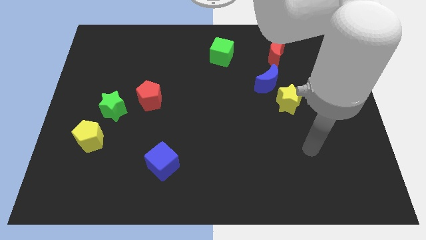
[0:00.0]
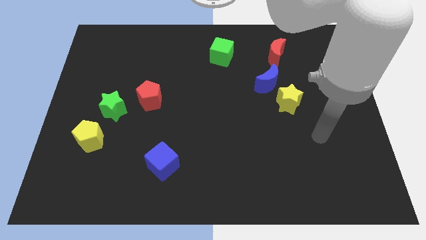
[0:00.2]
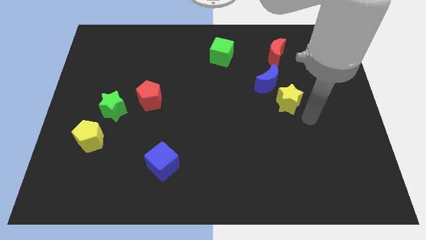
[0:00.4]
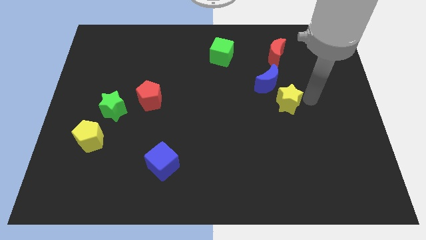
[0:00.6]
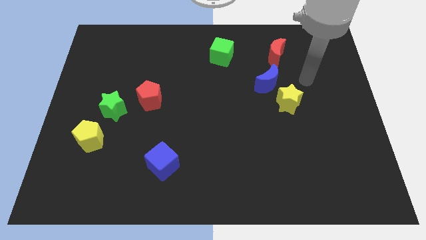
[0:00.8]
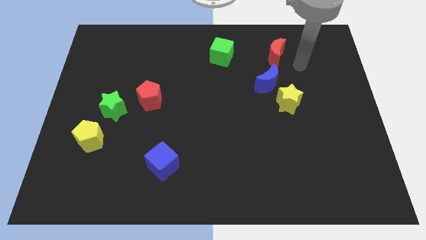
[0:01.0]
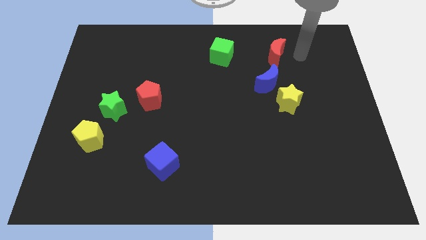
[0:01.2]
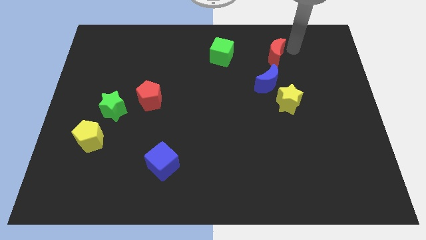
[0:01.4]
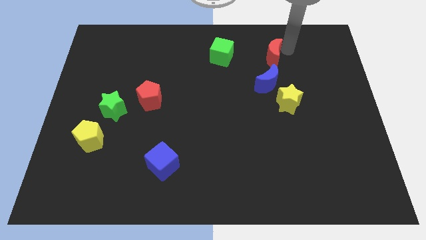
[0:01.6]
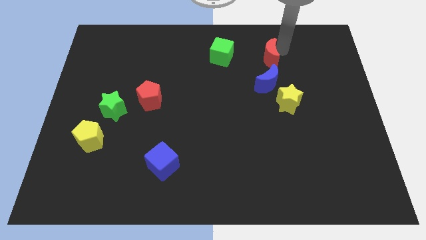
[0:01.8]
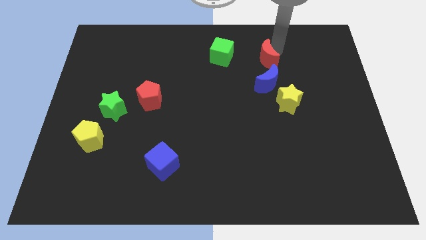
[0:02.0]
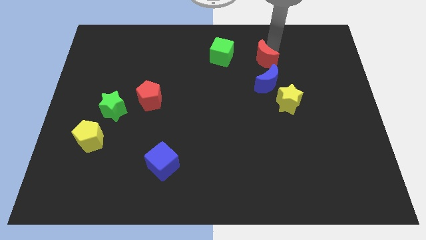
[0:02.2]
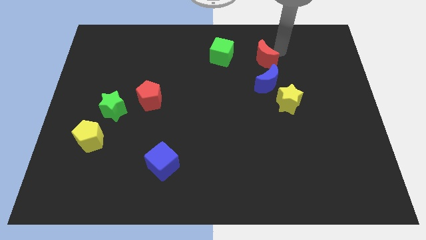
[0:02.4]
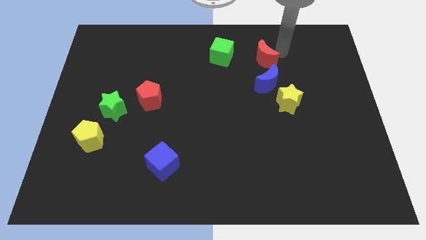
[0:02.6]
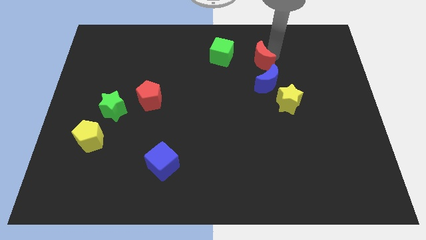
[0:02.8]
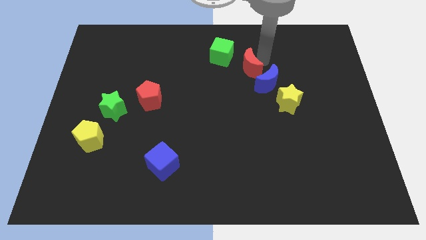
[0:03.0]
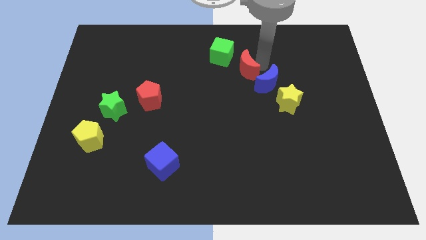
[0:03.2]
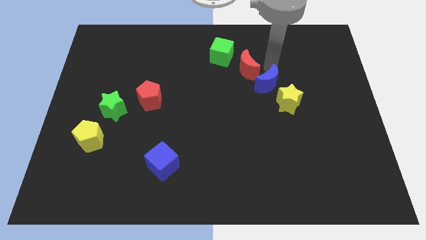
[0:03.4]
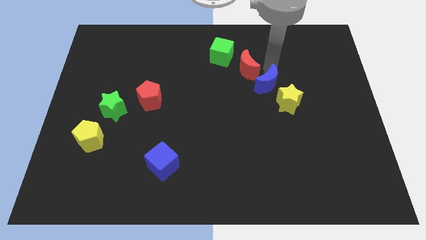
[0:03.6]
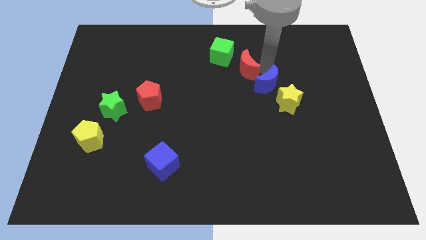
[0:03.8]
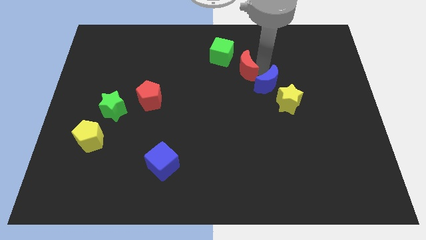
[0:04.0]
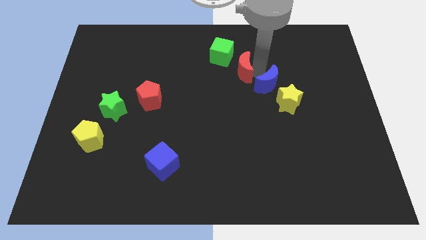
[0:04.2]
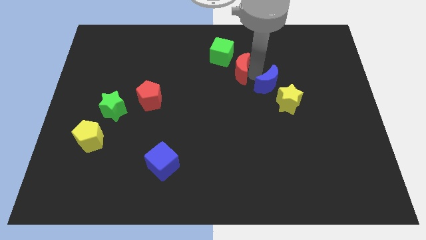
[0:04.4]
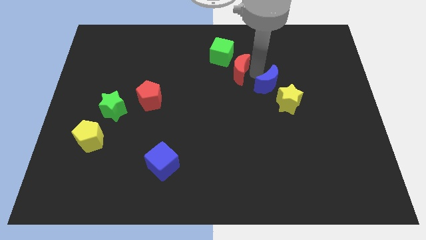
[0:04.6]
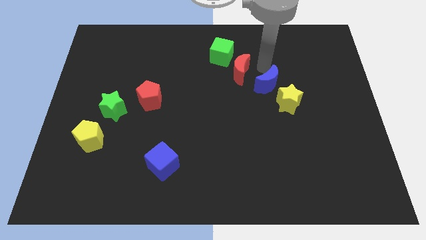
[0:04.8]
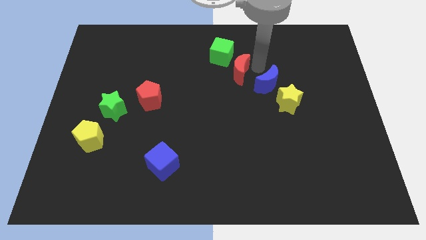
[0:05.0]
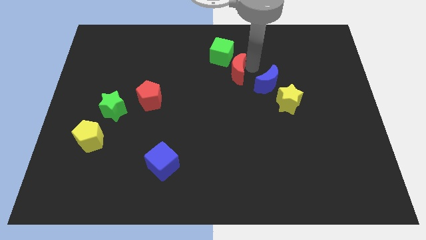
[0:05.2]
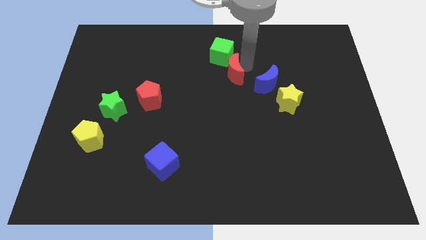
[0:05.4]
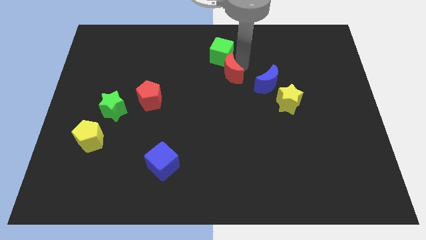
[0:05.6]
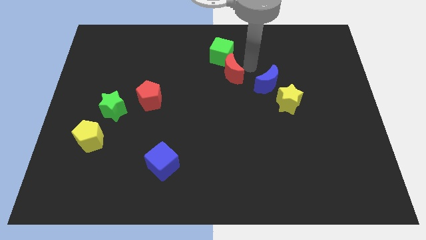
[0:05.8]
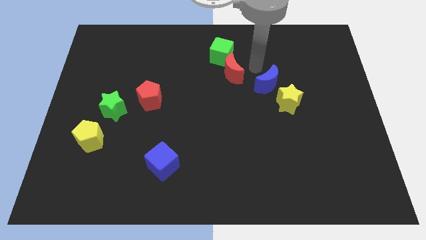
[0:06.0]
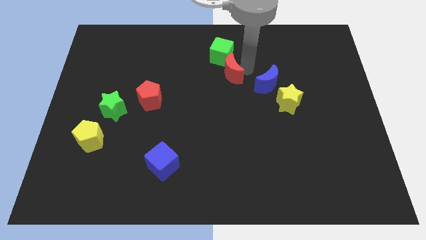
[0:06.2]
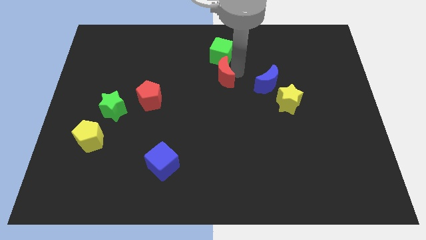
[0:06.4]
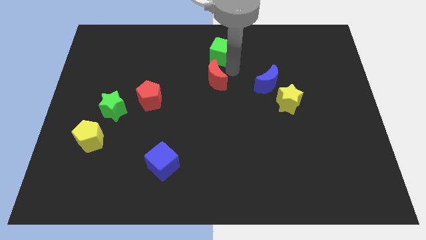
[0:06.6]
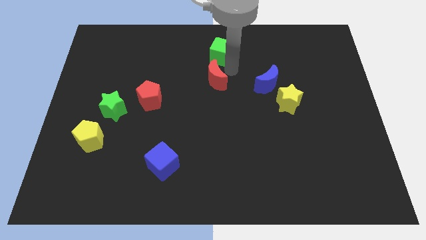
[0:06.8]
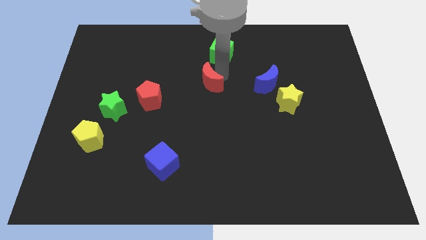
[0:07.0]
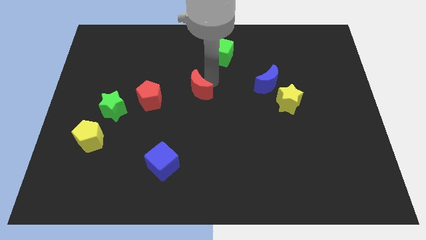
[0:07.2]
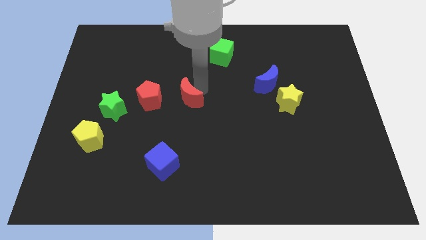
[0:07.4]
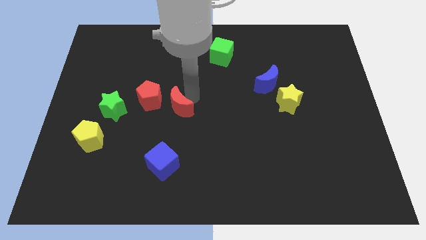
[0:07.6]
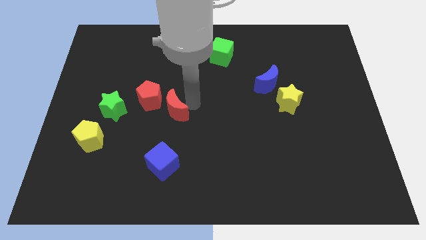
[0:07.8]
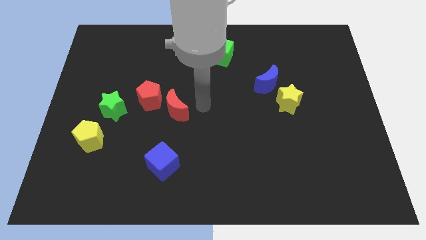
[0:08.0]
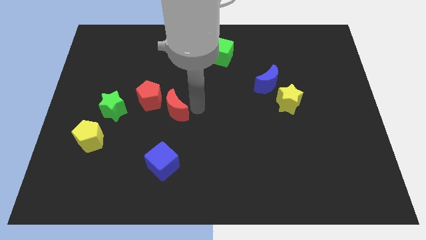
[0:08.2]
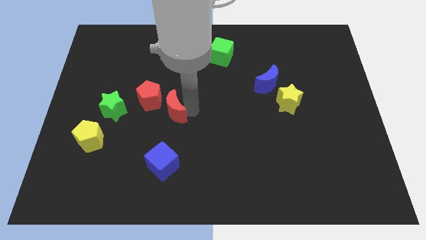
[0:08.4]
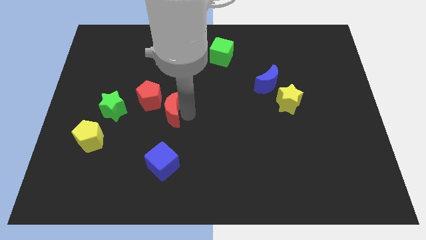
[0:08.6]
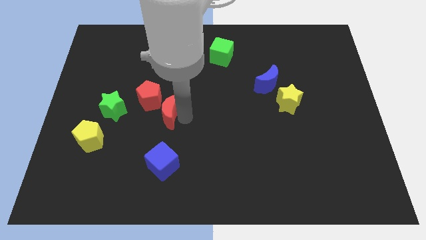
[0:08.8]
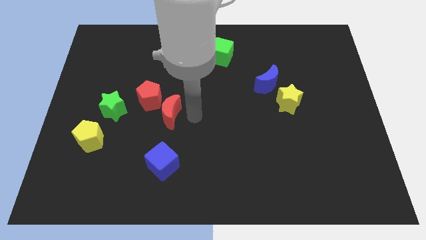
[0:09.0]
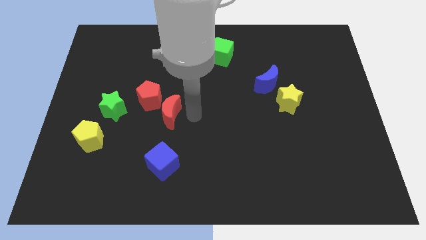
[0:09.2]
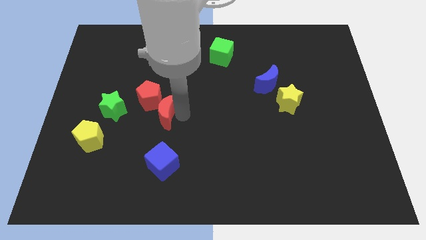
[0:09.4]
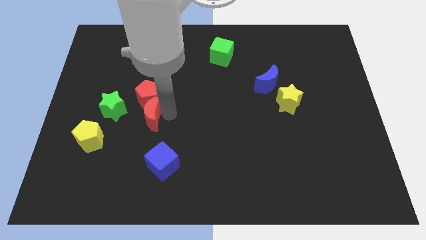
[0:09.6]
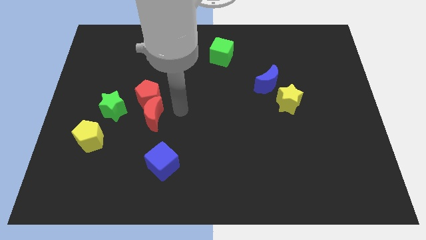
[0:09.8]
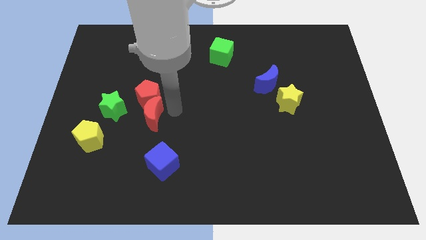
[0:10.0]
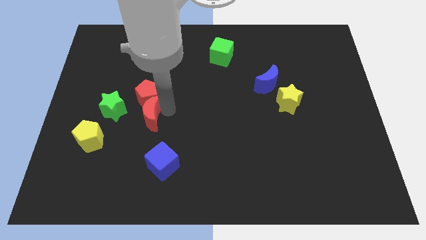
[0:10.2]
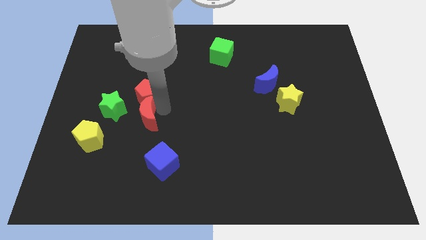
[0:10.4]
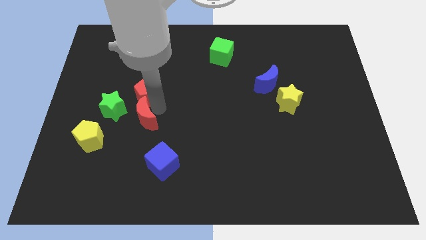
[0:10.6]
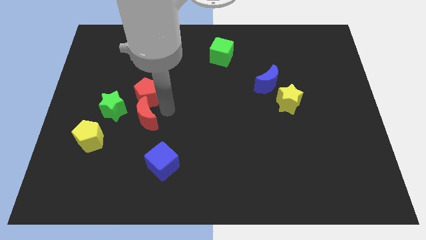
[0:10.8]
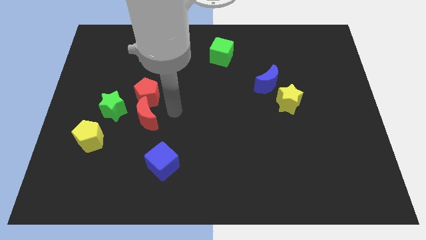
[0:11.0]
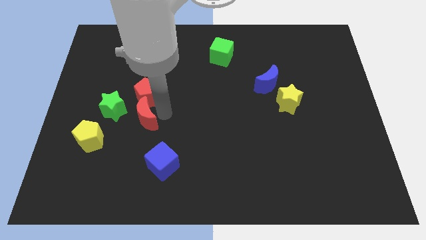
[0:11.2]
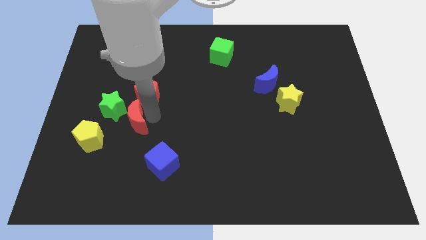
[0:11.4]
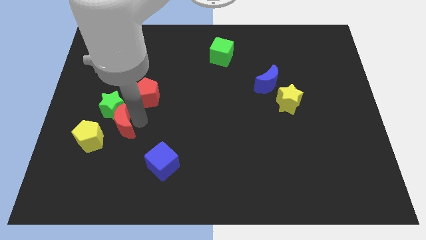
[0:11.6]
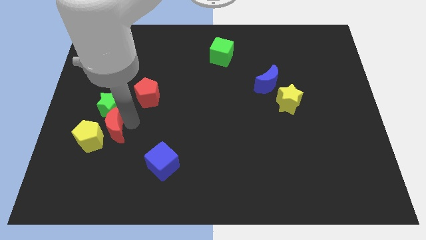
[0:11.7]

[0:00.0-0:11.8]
push the red moon towards the yellow pentagon

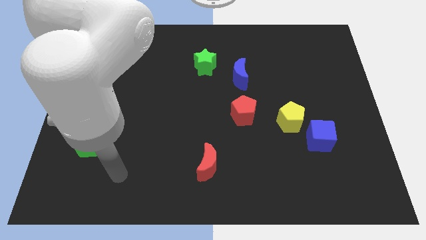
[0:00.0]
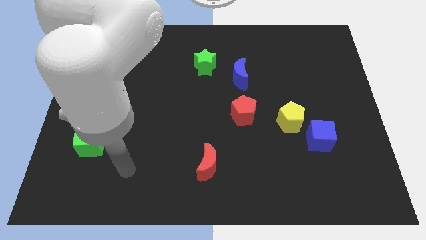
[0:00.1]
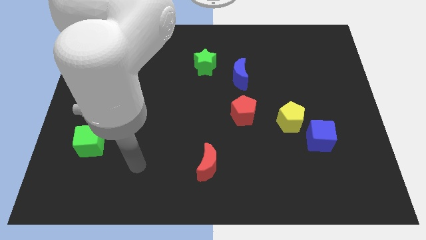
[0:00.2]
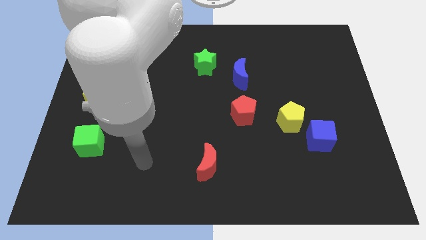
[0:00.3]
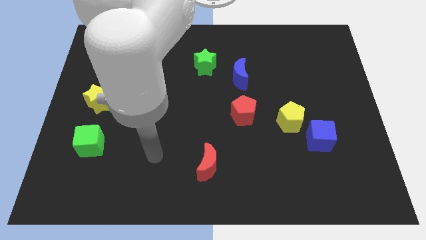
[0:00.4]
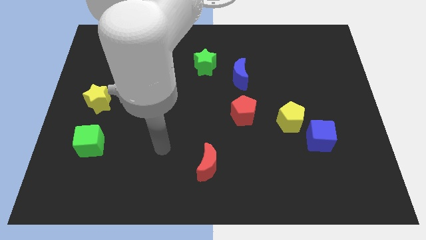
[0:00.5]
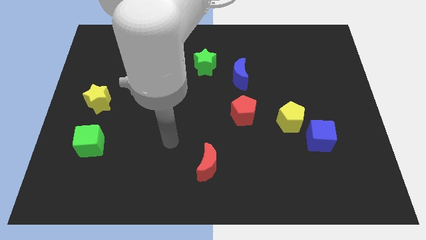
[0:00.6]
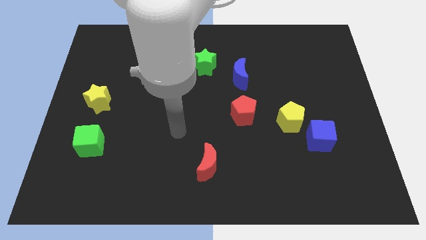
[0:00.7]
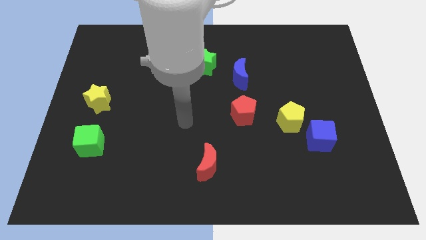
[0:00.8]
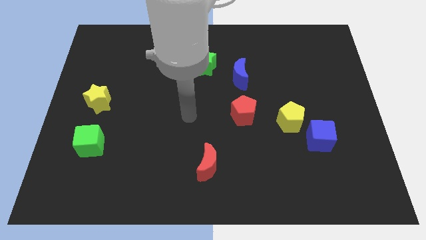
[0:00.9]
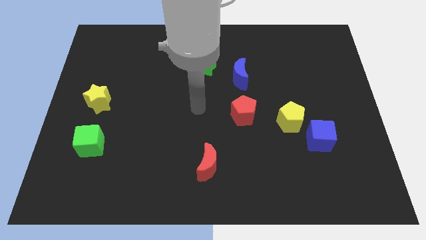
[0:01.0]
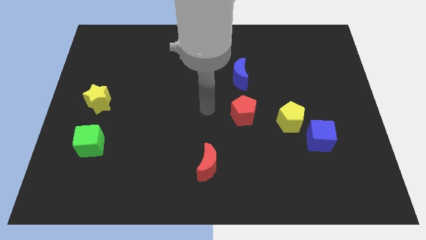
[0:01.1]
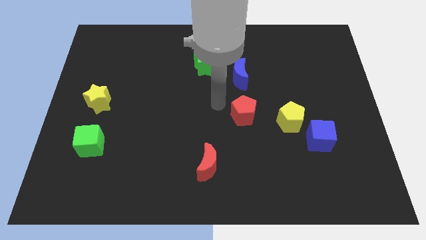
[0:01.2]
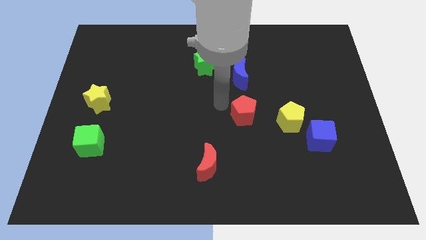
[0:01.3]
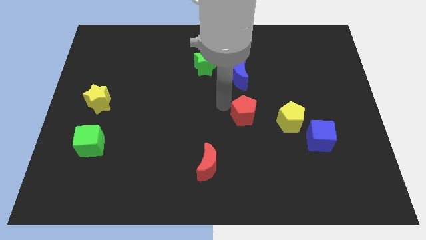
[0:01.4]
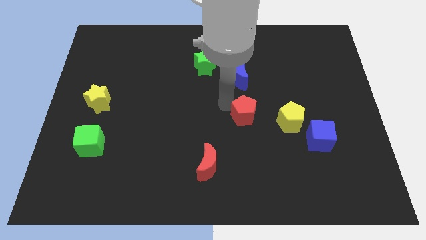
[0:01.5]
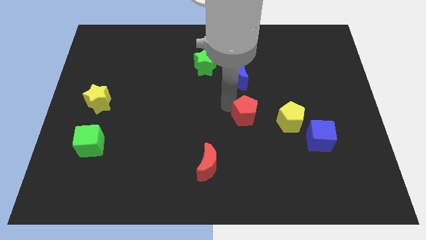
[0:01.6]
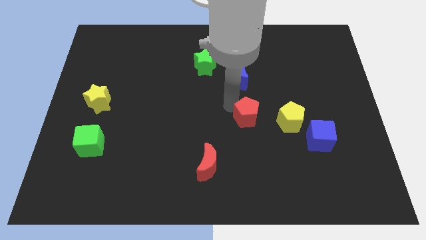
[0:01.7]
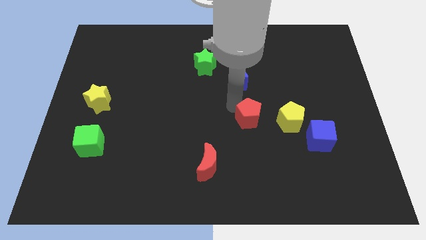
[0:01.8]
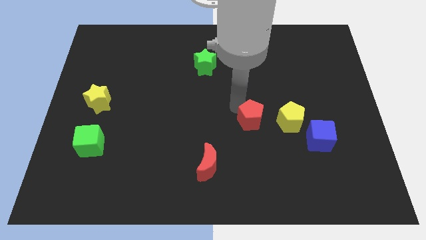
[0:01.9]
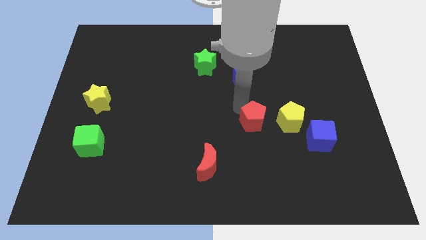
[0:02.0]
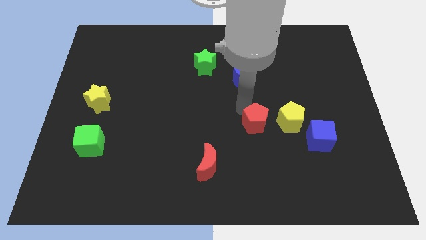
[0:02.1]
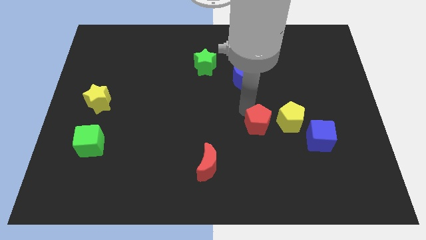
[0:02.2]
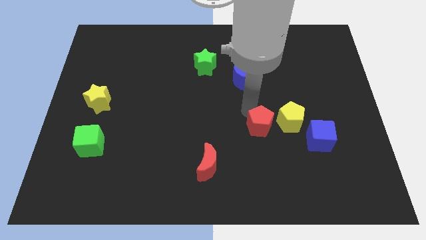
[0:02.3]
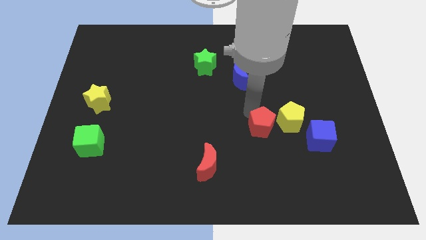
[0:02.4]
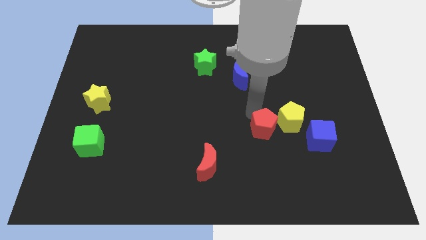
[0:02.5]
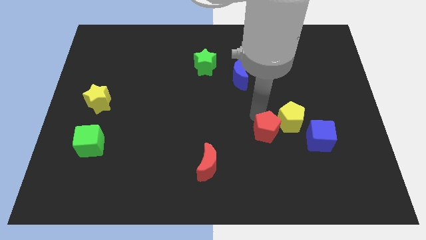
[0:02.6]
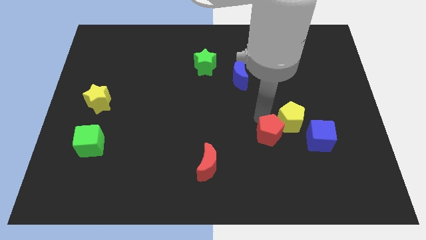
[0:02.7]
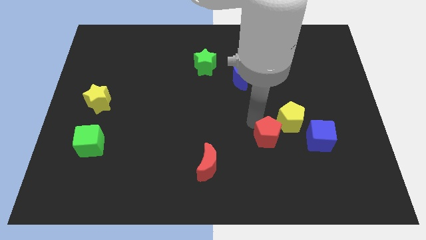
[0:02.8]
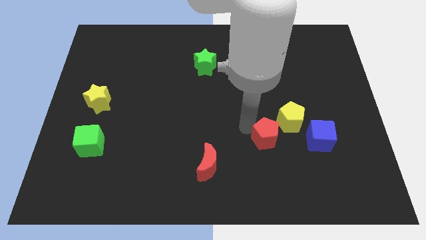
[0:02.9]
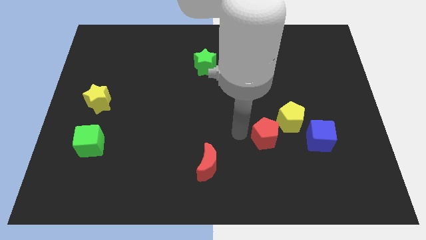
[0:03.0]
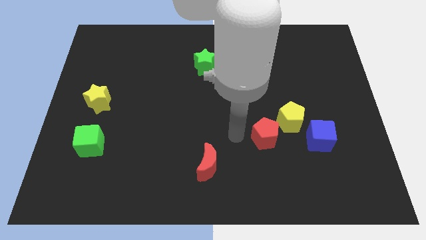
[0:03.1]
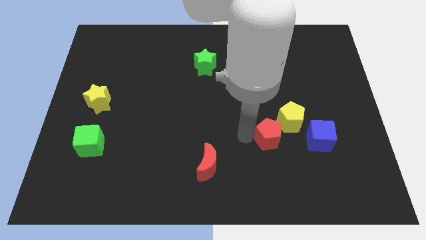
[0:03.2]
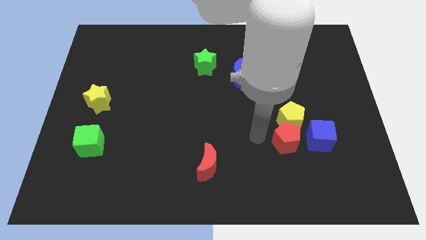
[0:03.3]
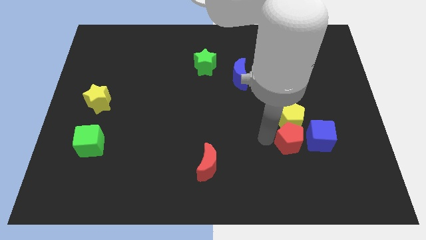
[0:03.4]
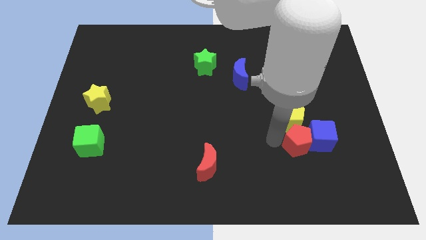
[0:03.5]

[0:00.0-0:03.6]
put the red pentagon close to the blue cube
